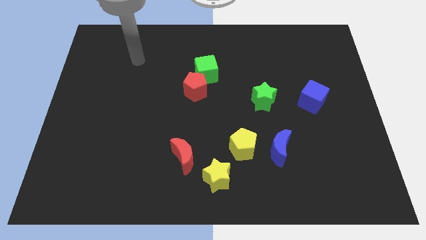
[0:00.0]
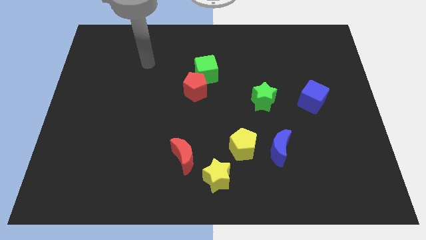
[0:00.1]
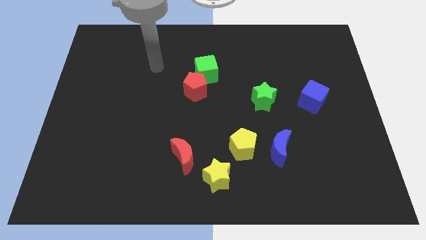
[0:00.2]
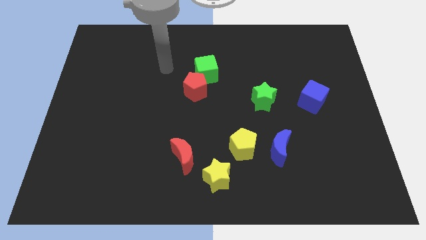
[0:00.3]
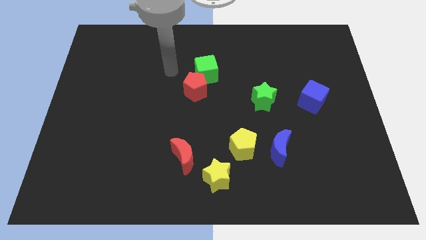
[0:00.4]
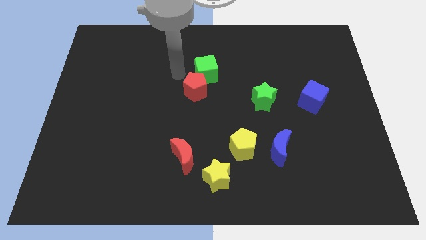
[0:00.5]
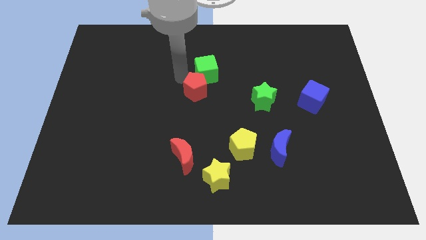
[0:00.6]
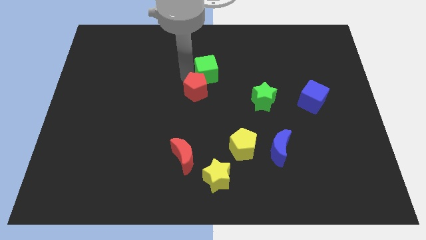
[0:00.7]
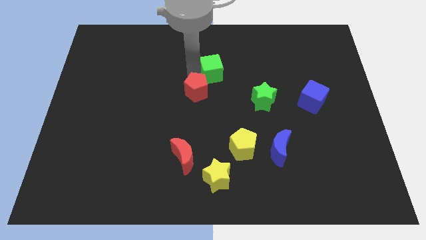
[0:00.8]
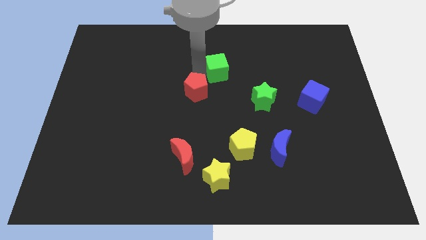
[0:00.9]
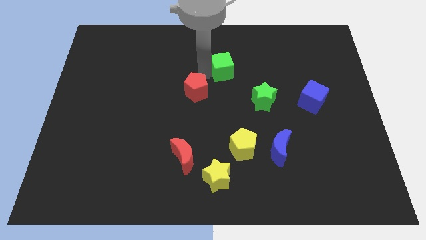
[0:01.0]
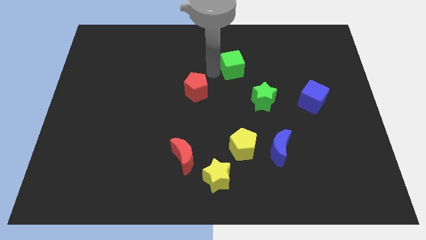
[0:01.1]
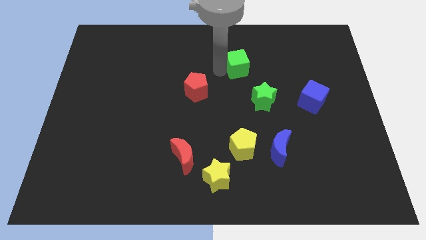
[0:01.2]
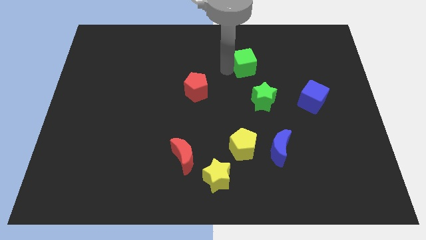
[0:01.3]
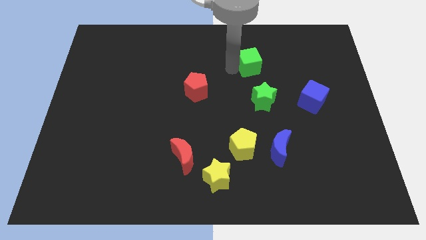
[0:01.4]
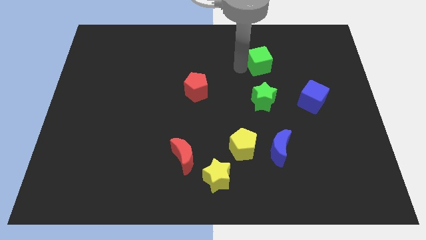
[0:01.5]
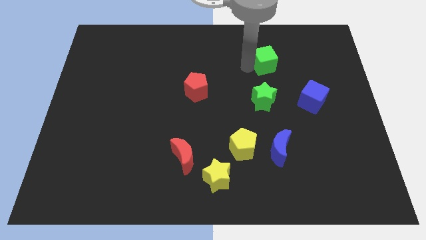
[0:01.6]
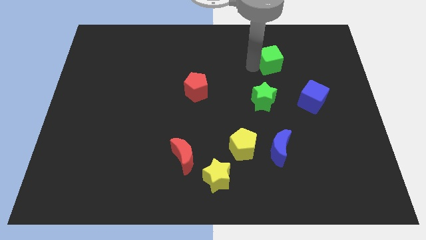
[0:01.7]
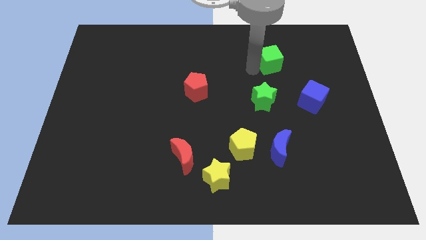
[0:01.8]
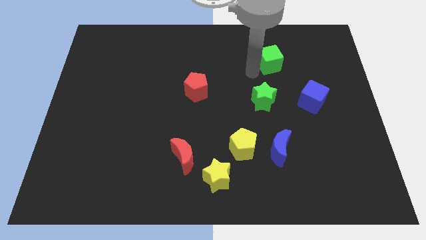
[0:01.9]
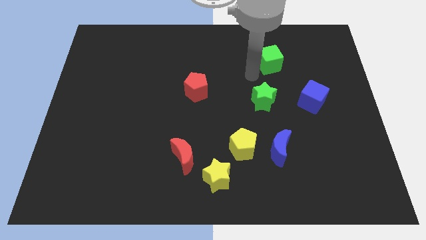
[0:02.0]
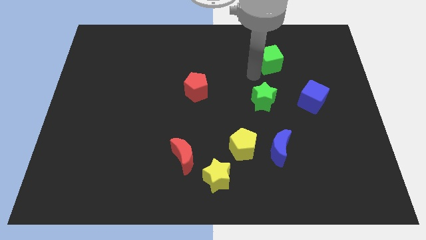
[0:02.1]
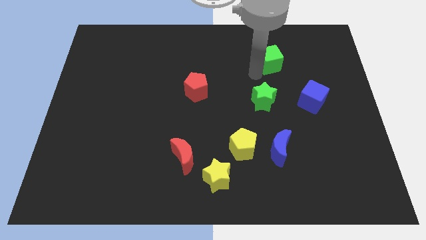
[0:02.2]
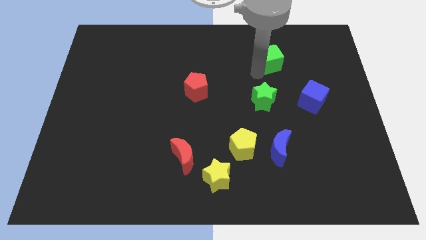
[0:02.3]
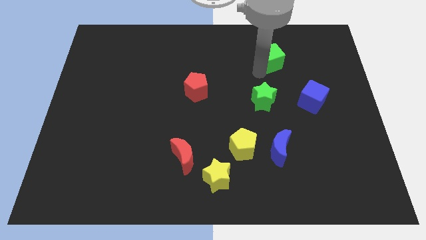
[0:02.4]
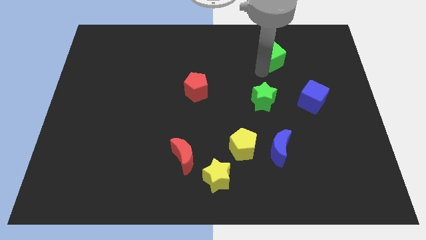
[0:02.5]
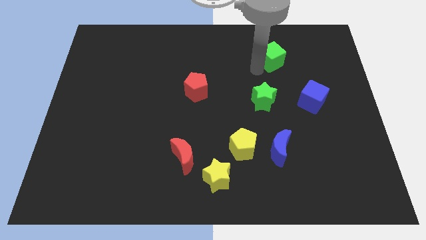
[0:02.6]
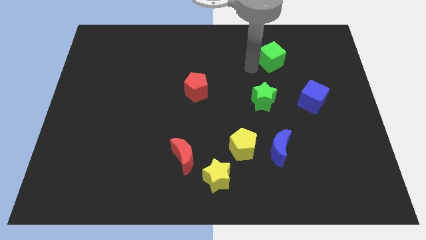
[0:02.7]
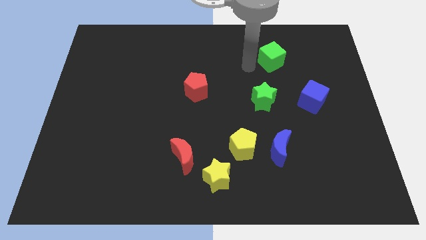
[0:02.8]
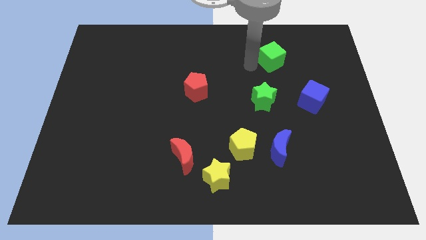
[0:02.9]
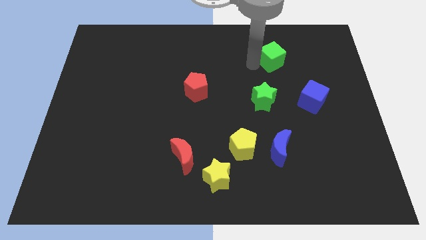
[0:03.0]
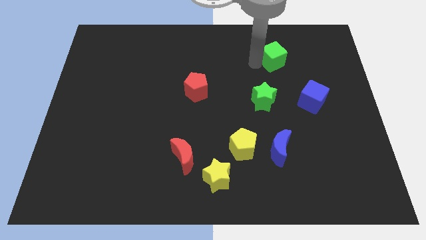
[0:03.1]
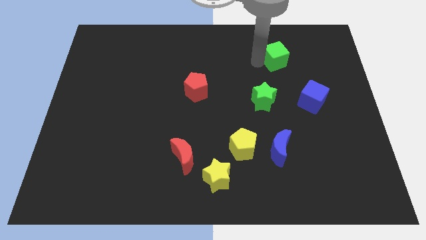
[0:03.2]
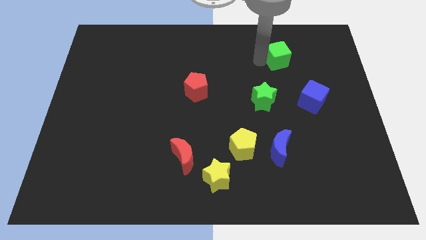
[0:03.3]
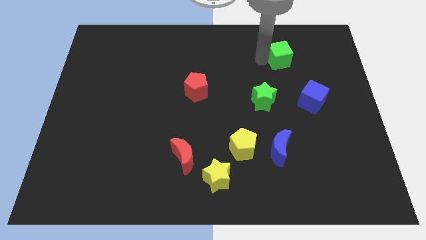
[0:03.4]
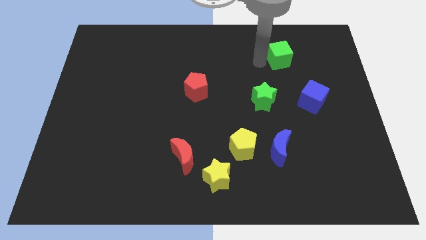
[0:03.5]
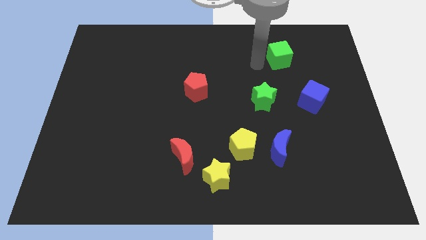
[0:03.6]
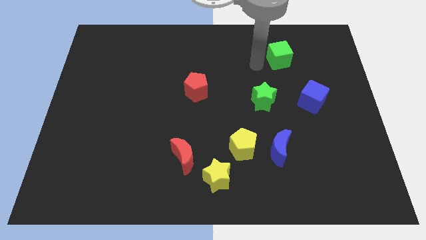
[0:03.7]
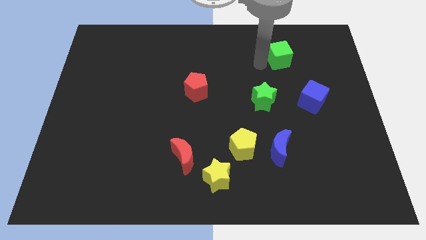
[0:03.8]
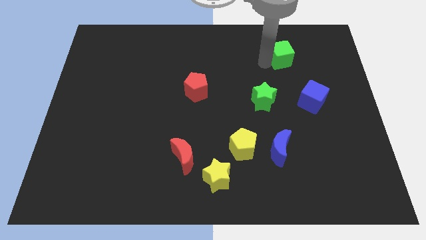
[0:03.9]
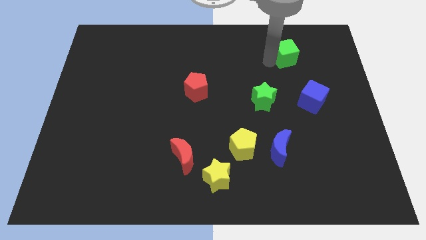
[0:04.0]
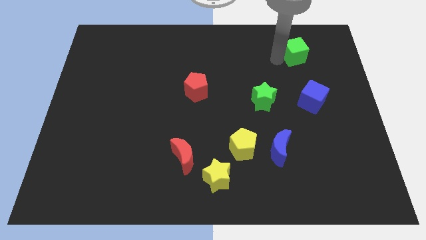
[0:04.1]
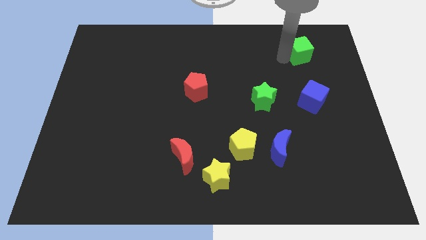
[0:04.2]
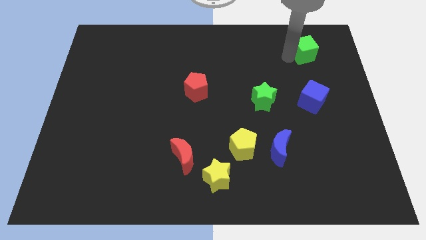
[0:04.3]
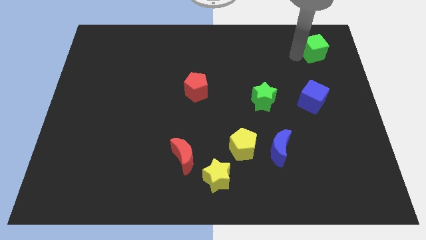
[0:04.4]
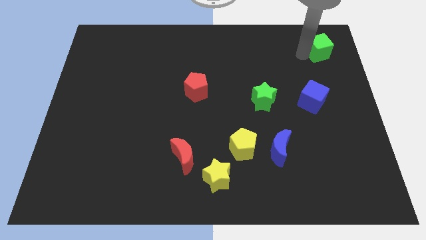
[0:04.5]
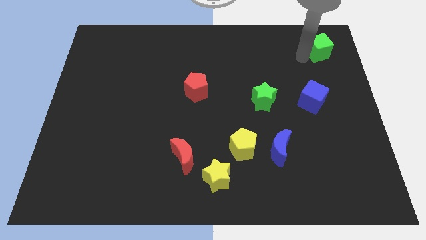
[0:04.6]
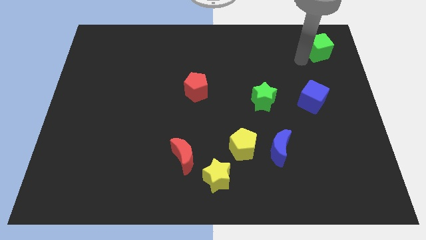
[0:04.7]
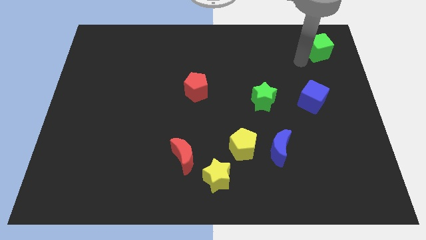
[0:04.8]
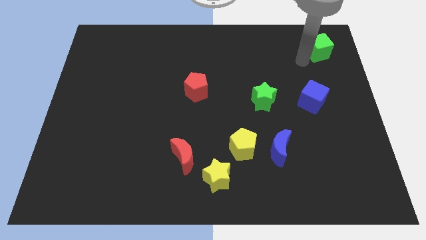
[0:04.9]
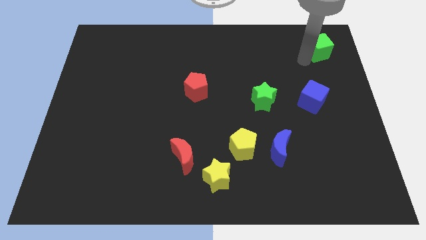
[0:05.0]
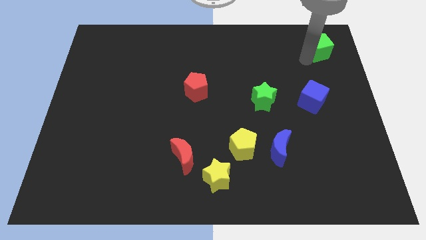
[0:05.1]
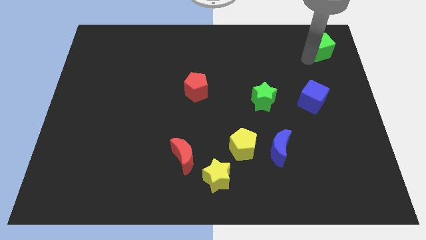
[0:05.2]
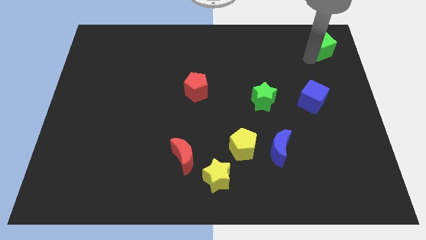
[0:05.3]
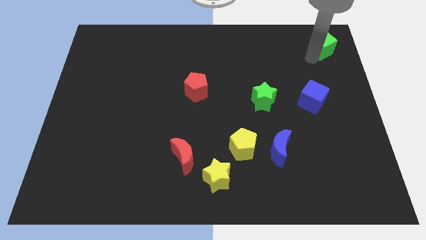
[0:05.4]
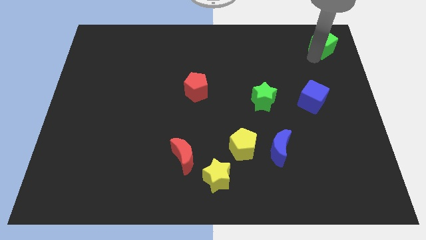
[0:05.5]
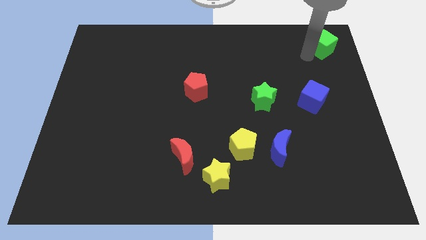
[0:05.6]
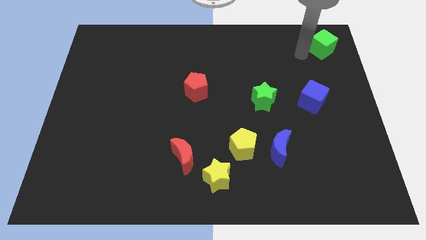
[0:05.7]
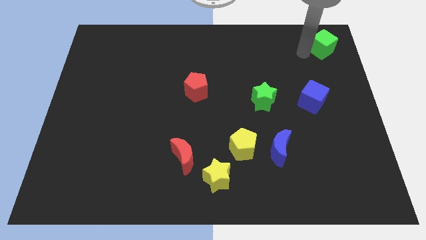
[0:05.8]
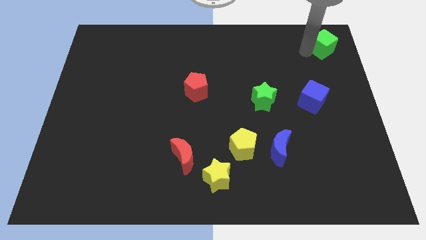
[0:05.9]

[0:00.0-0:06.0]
put the green cube to the top right of the board

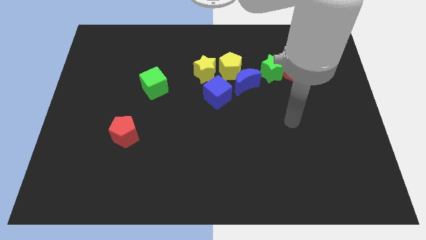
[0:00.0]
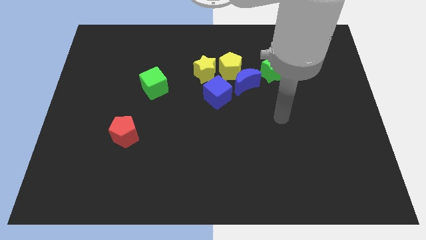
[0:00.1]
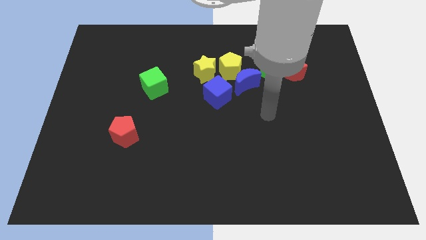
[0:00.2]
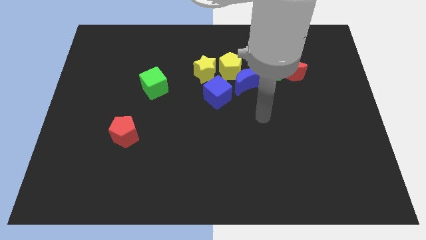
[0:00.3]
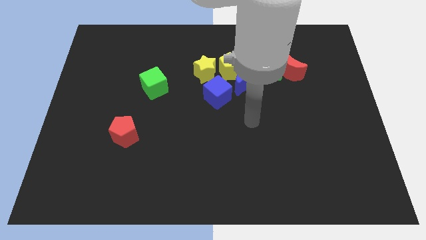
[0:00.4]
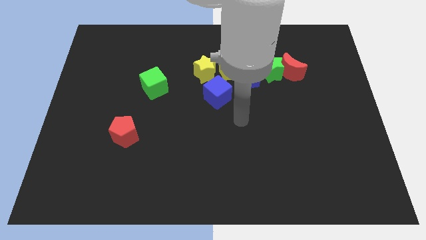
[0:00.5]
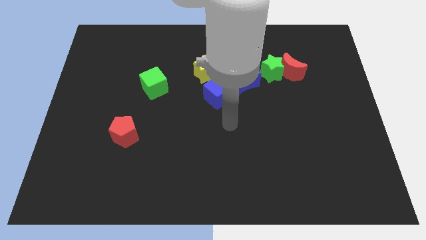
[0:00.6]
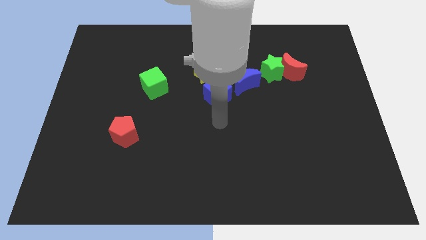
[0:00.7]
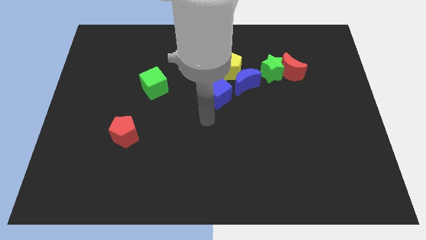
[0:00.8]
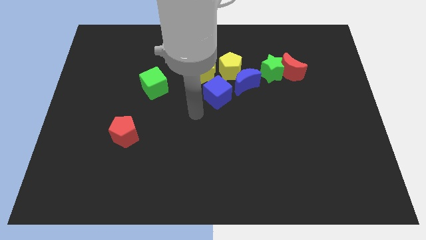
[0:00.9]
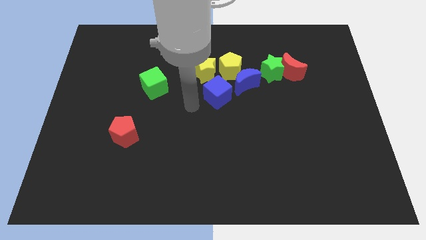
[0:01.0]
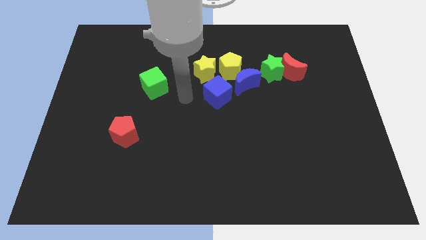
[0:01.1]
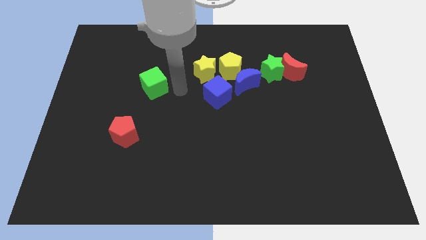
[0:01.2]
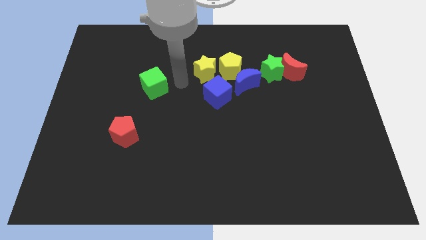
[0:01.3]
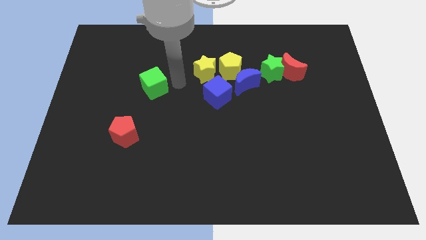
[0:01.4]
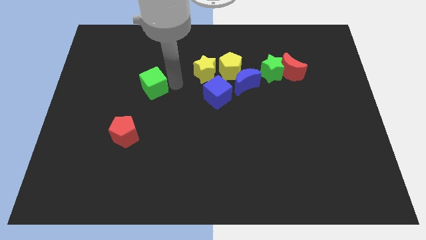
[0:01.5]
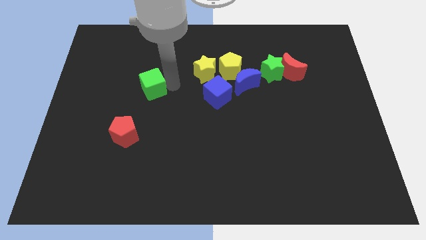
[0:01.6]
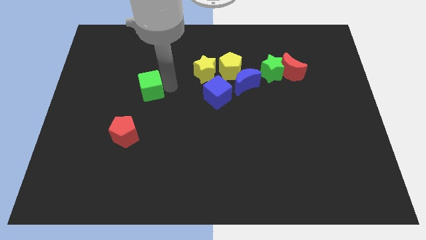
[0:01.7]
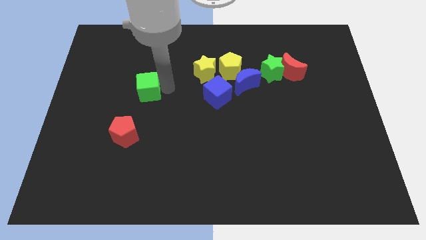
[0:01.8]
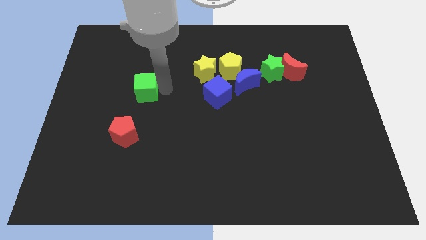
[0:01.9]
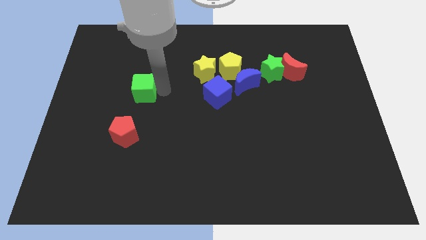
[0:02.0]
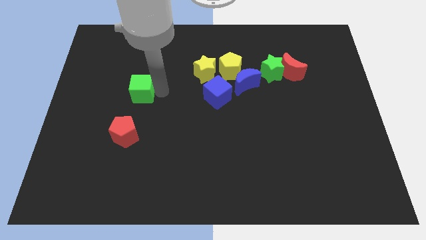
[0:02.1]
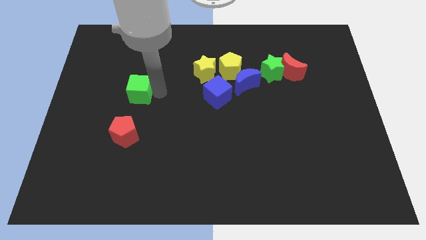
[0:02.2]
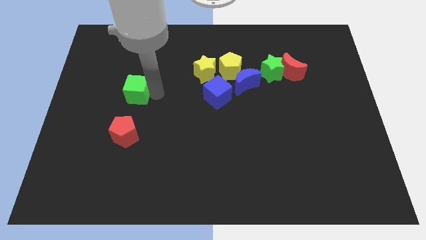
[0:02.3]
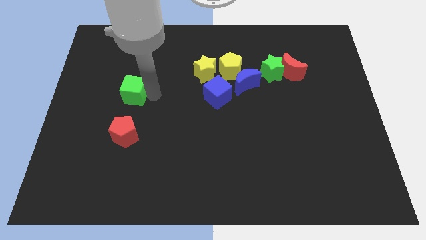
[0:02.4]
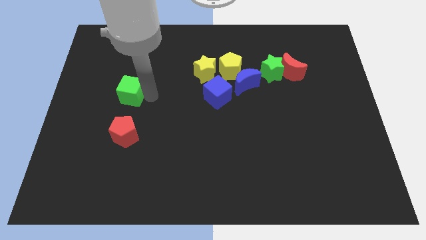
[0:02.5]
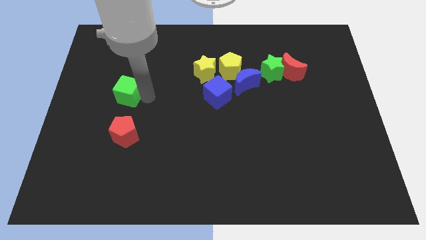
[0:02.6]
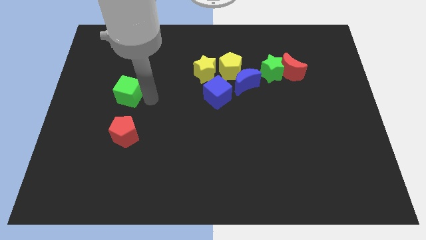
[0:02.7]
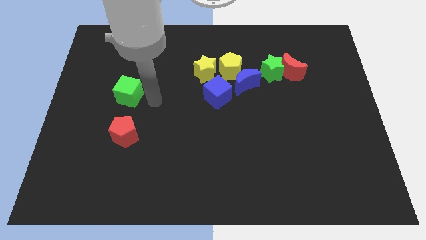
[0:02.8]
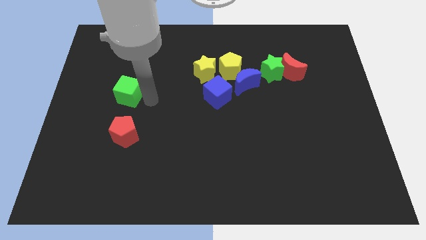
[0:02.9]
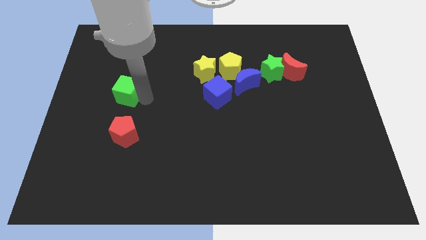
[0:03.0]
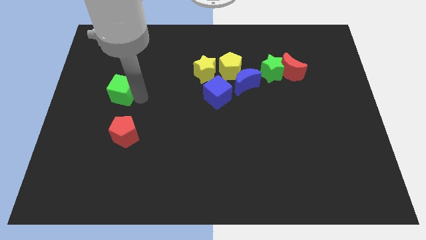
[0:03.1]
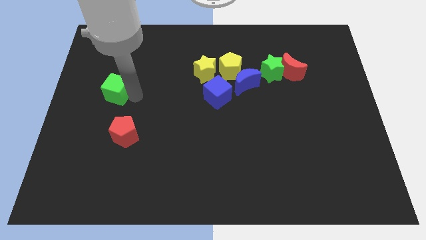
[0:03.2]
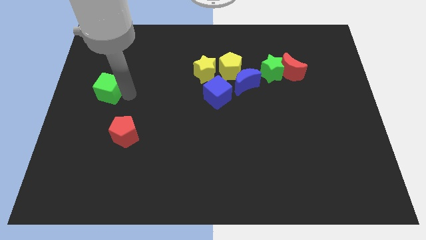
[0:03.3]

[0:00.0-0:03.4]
put the green cube to the center left
